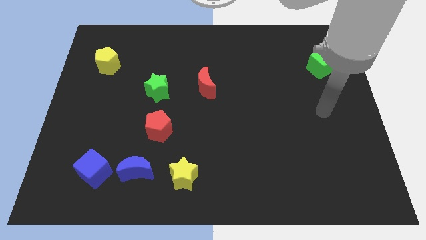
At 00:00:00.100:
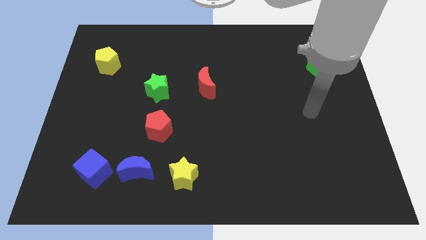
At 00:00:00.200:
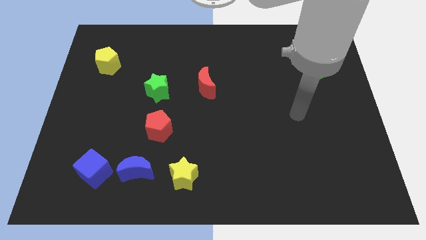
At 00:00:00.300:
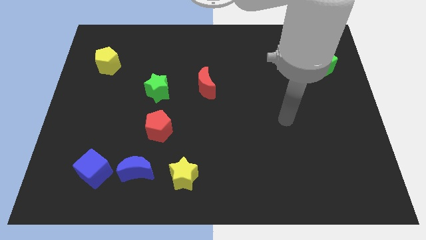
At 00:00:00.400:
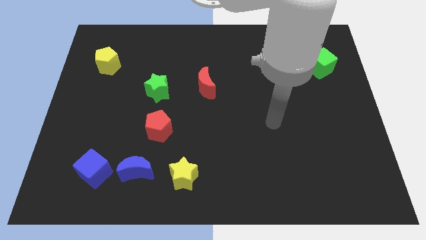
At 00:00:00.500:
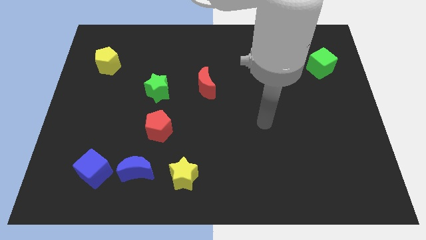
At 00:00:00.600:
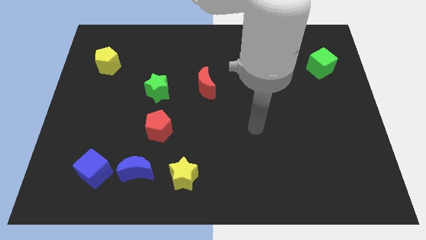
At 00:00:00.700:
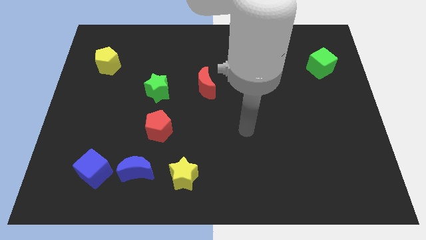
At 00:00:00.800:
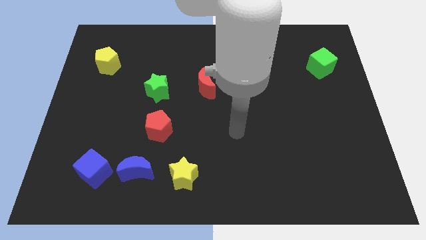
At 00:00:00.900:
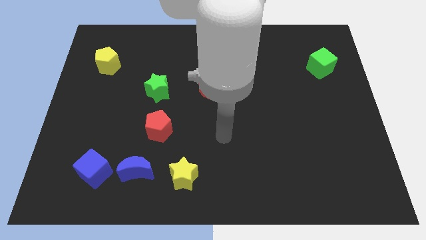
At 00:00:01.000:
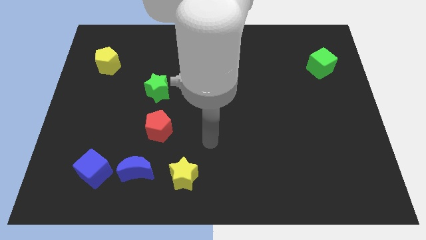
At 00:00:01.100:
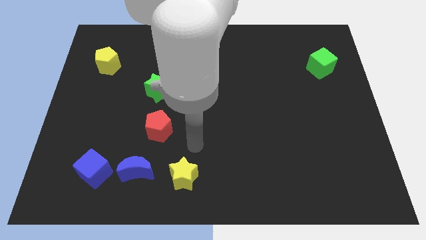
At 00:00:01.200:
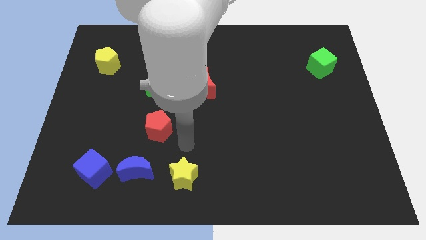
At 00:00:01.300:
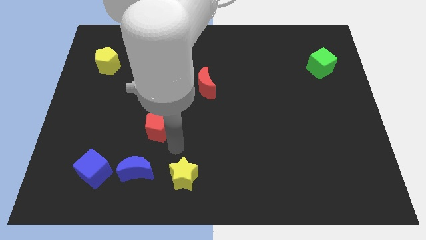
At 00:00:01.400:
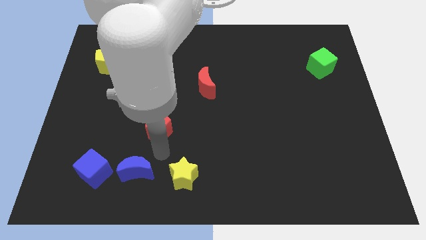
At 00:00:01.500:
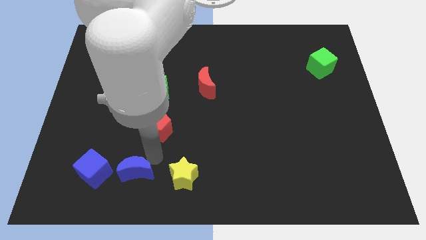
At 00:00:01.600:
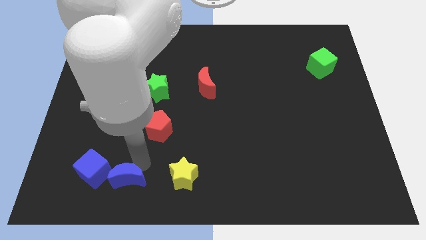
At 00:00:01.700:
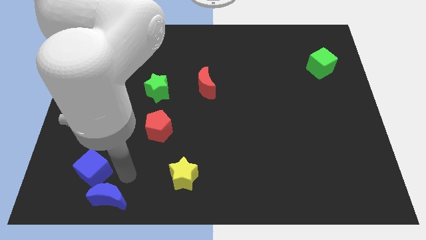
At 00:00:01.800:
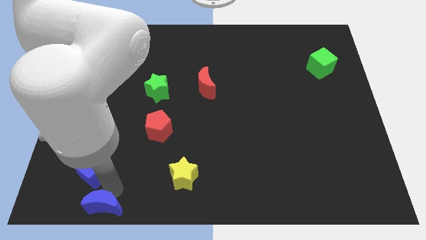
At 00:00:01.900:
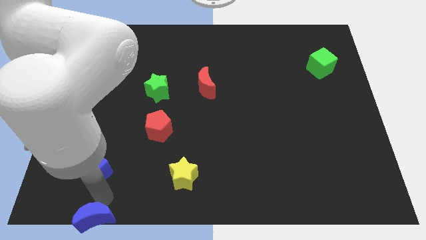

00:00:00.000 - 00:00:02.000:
separate the blue cube from the blue moon

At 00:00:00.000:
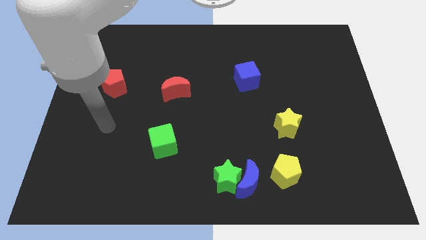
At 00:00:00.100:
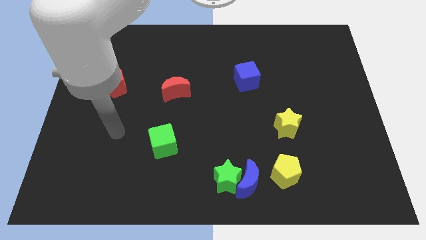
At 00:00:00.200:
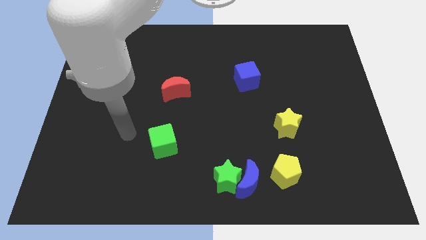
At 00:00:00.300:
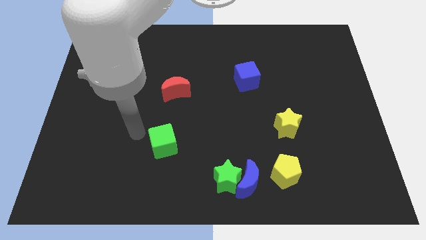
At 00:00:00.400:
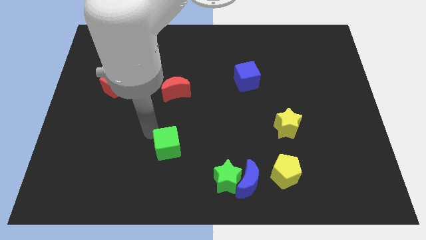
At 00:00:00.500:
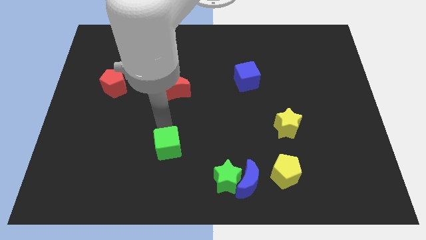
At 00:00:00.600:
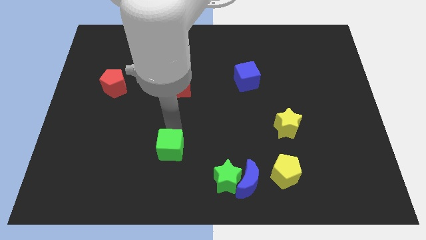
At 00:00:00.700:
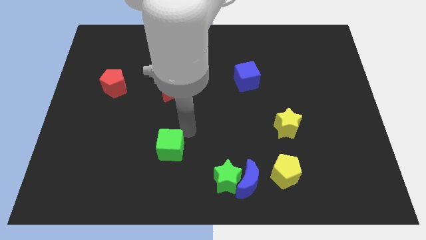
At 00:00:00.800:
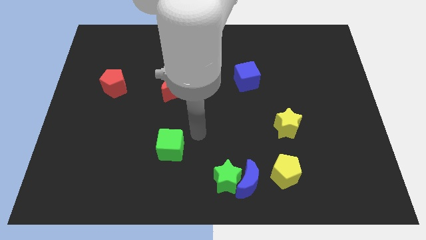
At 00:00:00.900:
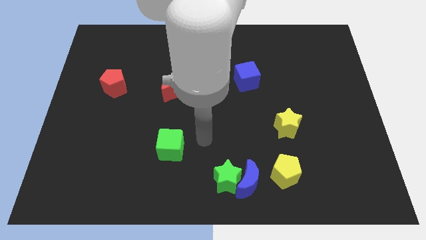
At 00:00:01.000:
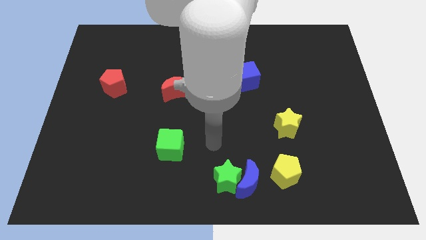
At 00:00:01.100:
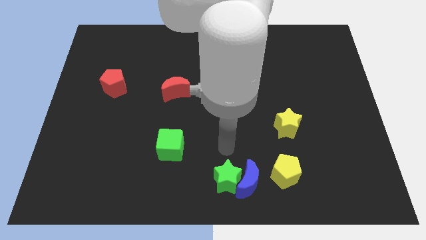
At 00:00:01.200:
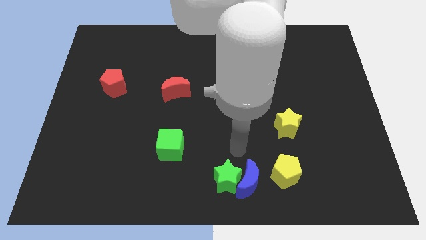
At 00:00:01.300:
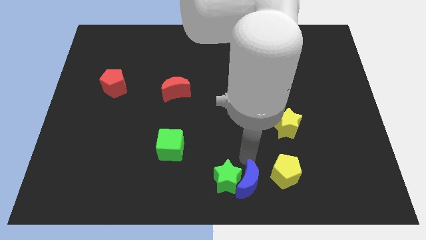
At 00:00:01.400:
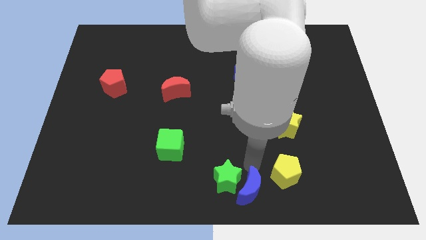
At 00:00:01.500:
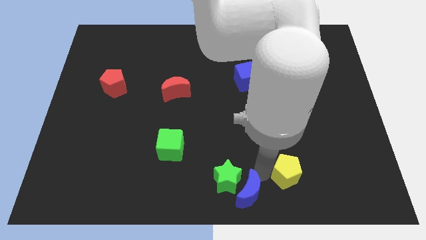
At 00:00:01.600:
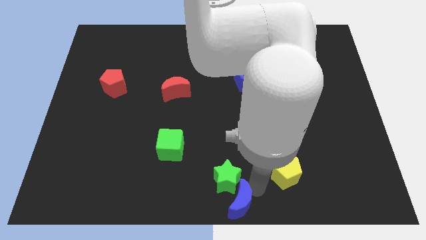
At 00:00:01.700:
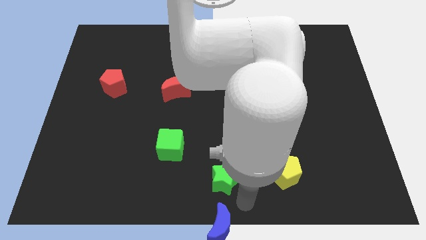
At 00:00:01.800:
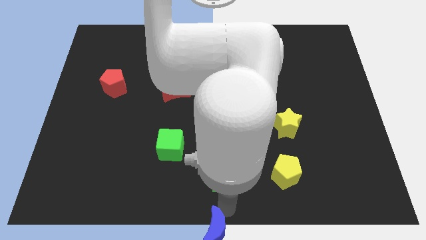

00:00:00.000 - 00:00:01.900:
pull the green star apart from the blue moon

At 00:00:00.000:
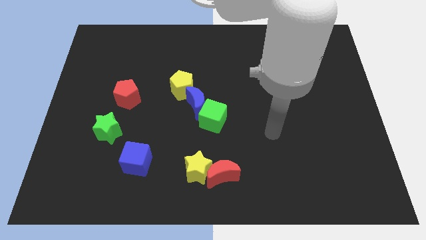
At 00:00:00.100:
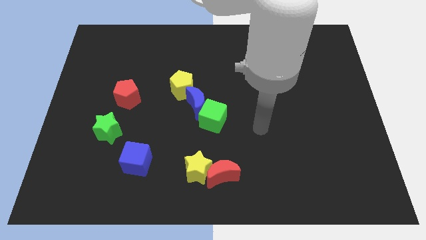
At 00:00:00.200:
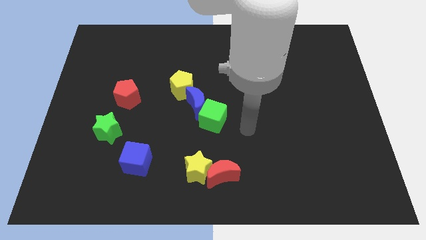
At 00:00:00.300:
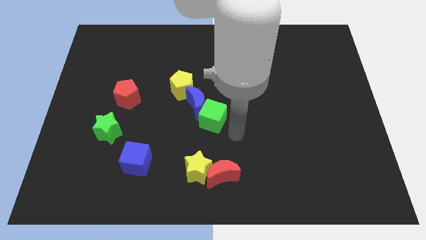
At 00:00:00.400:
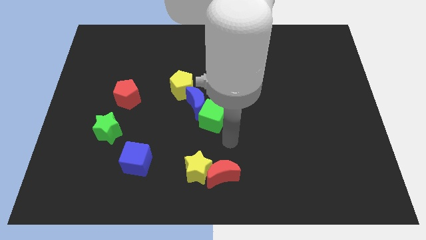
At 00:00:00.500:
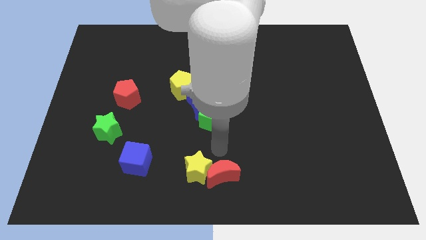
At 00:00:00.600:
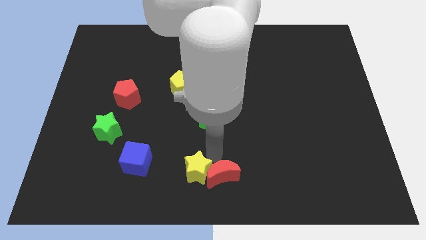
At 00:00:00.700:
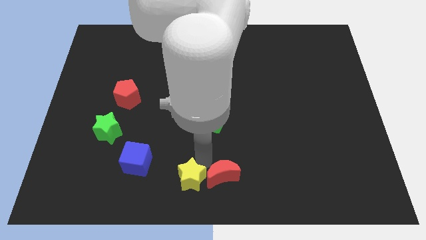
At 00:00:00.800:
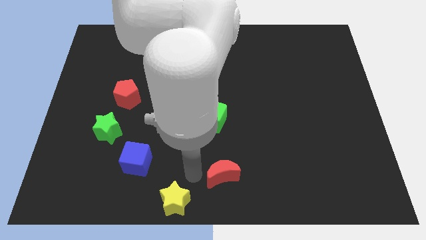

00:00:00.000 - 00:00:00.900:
move the red moon away from the yellow star

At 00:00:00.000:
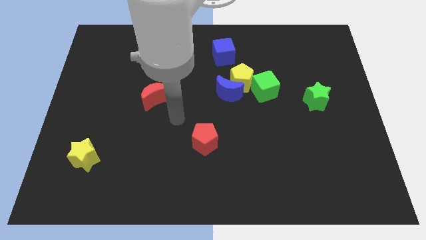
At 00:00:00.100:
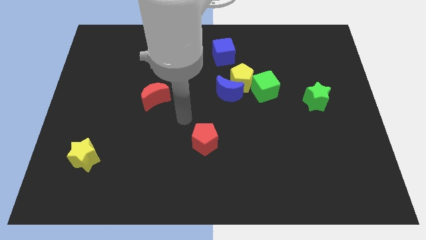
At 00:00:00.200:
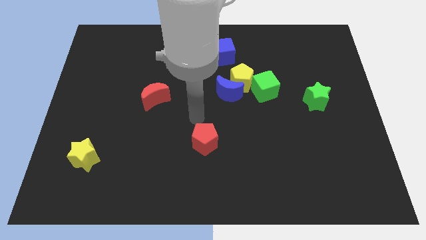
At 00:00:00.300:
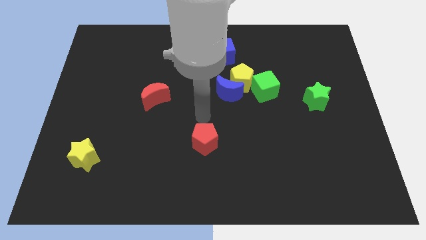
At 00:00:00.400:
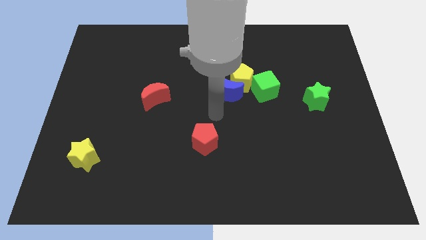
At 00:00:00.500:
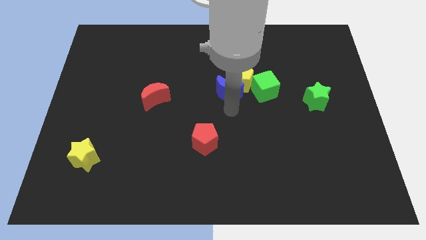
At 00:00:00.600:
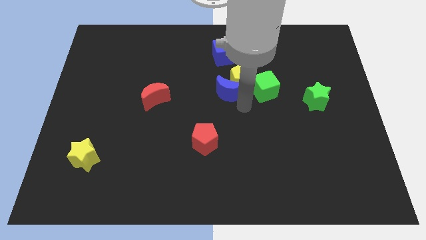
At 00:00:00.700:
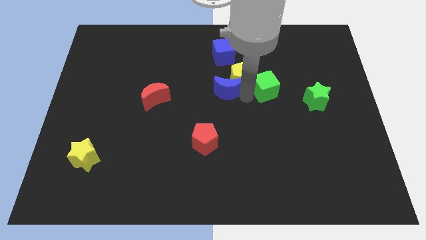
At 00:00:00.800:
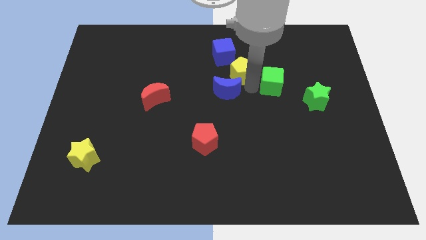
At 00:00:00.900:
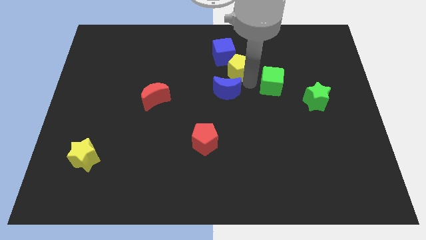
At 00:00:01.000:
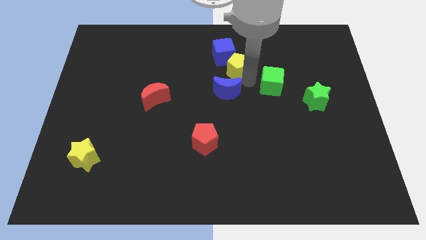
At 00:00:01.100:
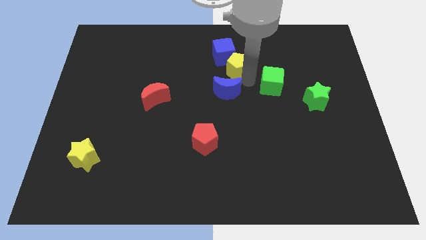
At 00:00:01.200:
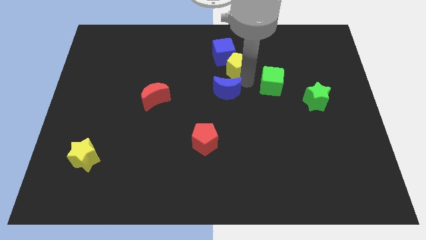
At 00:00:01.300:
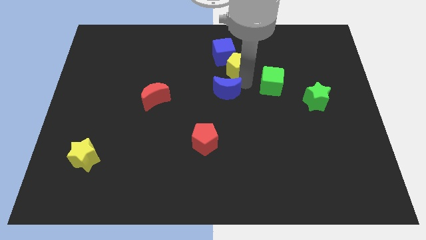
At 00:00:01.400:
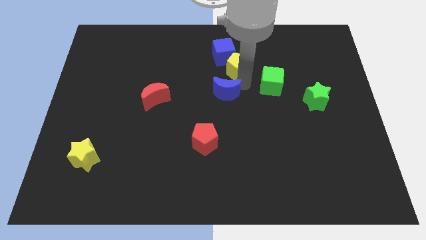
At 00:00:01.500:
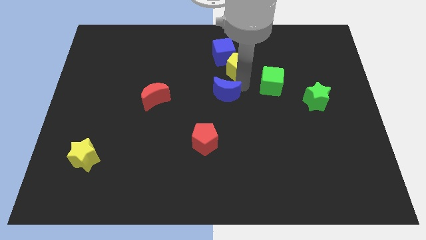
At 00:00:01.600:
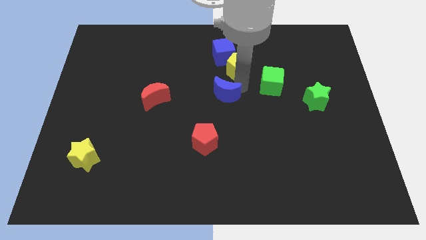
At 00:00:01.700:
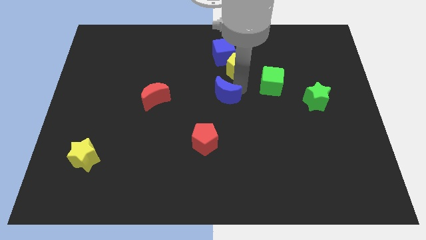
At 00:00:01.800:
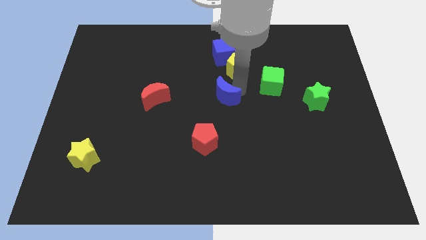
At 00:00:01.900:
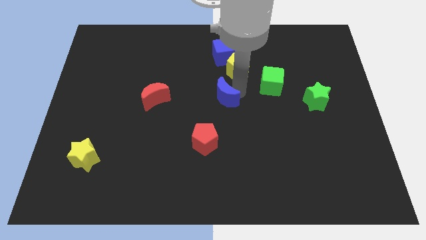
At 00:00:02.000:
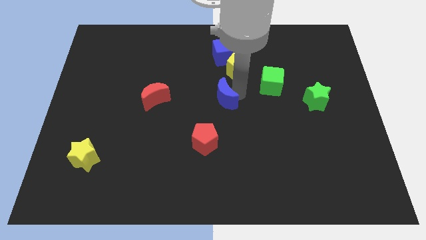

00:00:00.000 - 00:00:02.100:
pull the blue moon apart from the yellow pentagon and green cube

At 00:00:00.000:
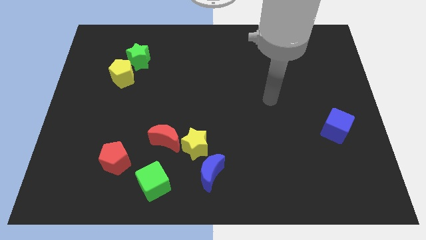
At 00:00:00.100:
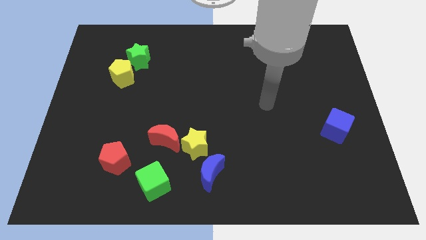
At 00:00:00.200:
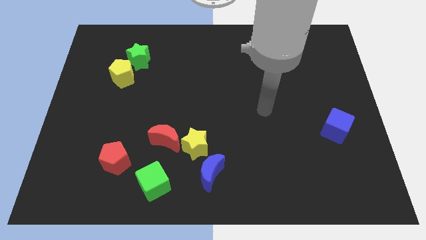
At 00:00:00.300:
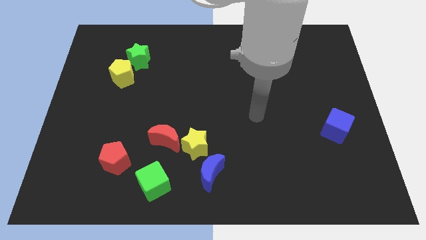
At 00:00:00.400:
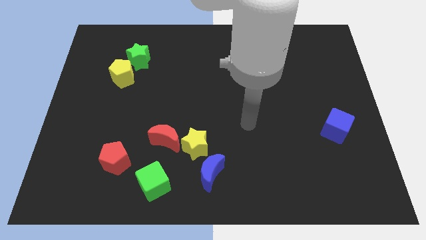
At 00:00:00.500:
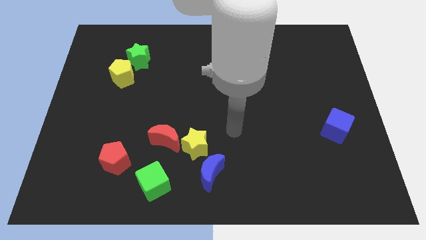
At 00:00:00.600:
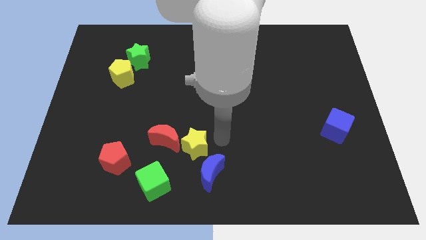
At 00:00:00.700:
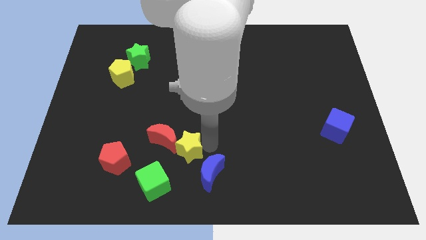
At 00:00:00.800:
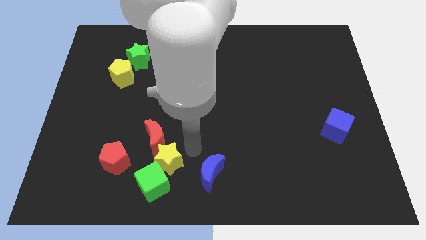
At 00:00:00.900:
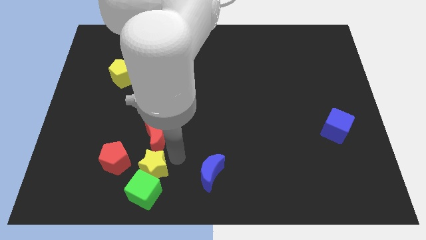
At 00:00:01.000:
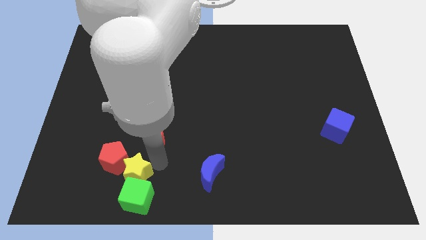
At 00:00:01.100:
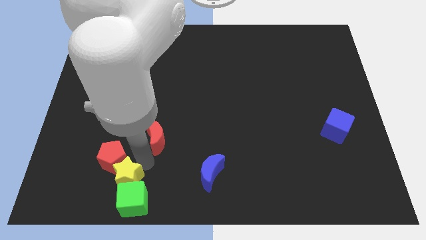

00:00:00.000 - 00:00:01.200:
separate the red moon from the yellow star

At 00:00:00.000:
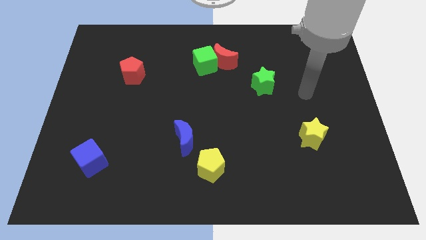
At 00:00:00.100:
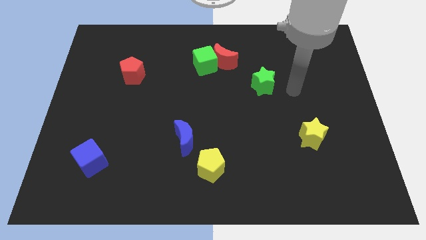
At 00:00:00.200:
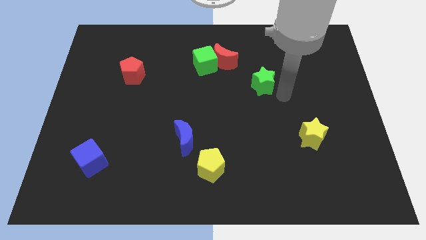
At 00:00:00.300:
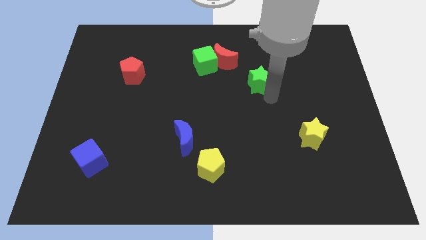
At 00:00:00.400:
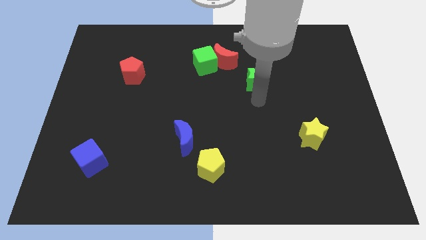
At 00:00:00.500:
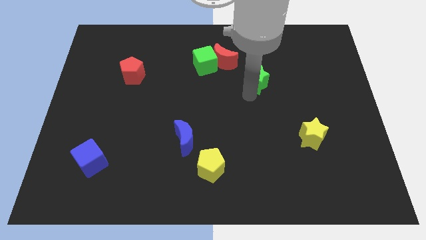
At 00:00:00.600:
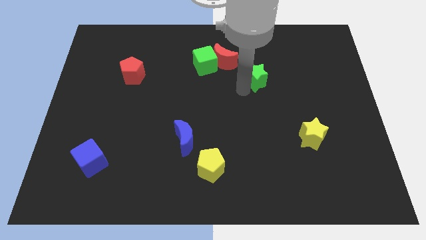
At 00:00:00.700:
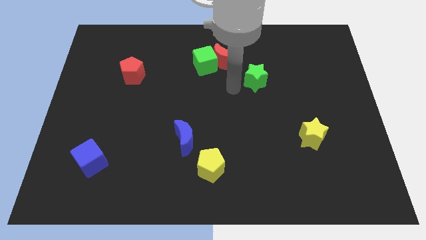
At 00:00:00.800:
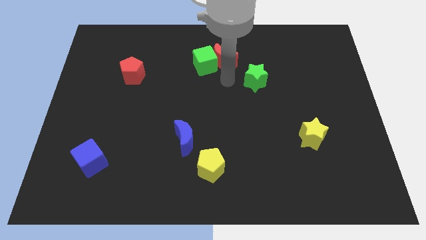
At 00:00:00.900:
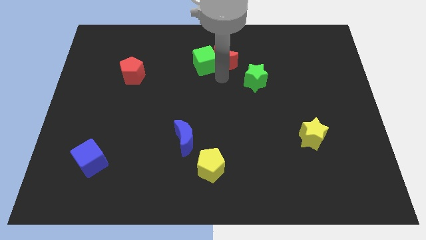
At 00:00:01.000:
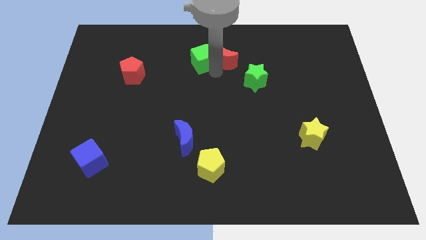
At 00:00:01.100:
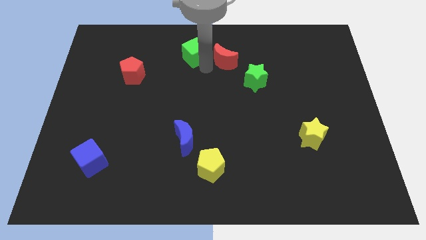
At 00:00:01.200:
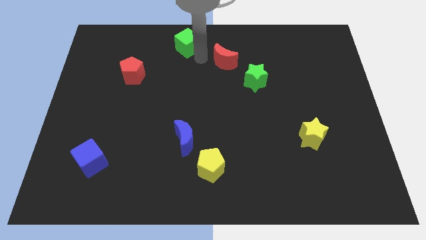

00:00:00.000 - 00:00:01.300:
separate the red moon from the green cube
